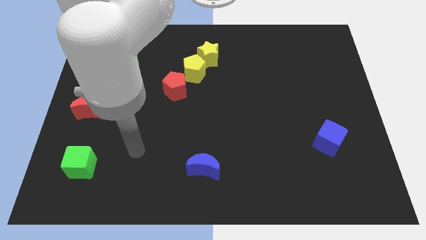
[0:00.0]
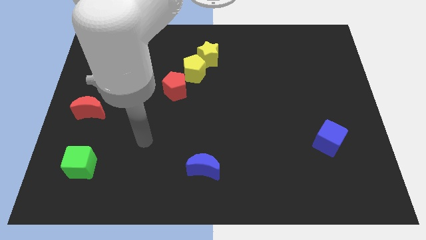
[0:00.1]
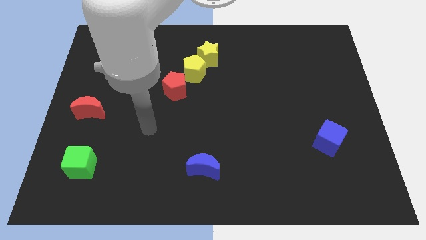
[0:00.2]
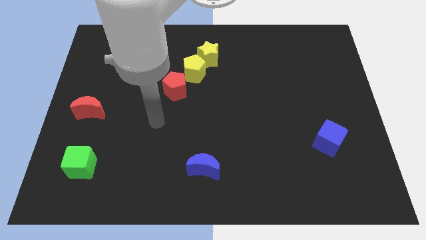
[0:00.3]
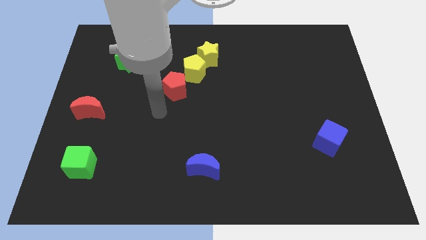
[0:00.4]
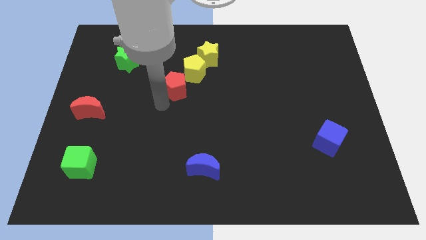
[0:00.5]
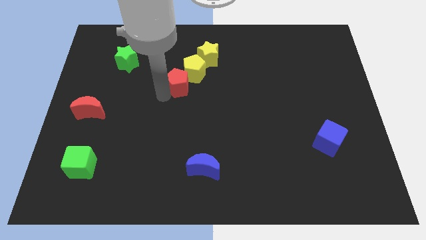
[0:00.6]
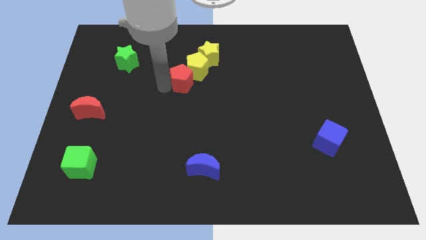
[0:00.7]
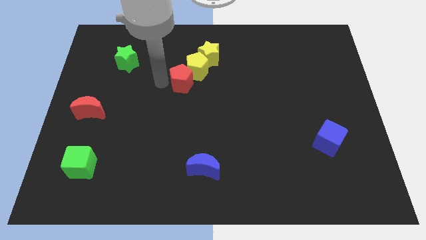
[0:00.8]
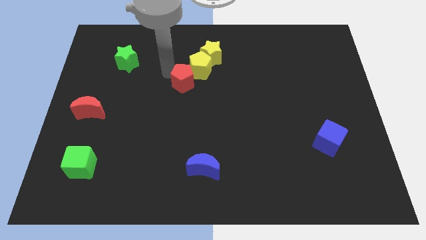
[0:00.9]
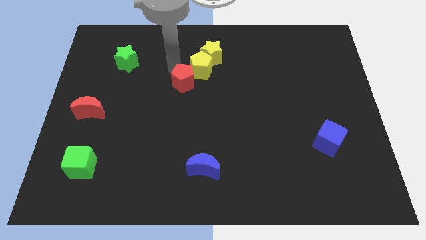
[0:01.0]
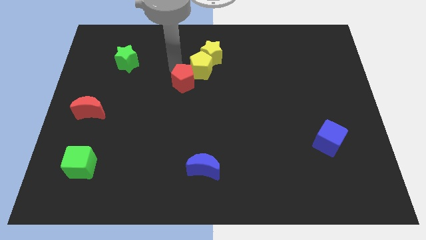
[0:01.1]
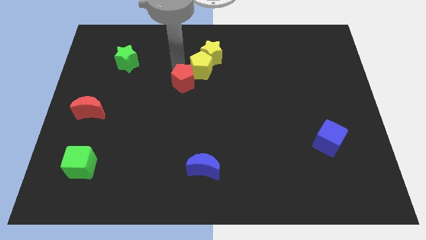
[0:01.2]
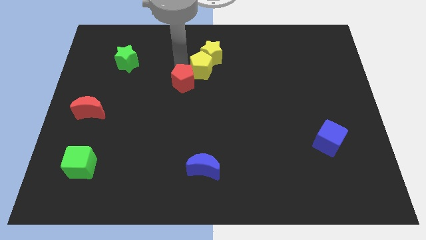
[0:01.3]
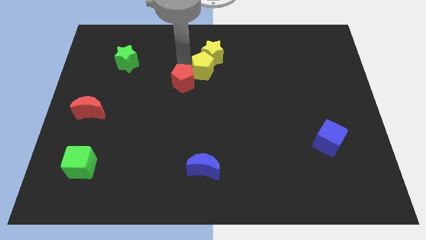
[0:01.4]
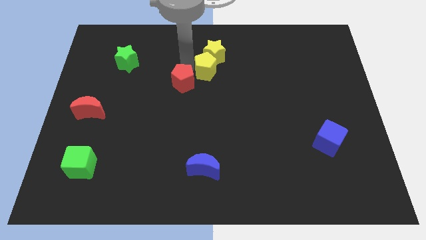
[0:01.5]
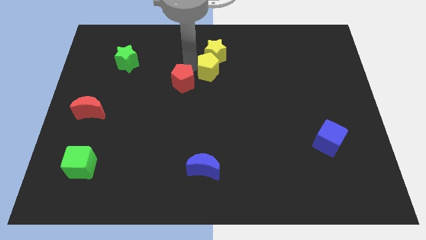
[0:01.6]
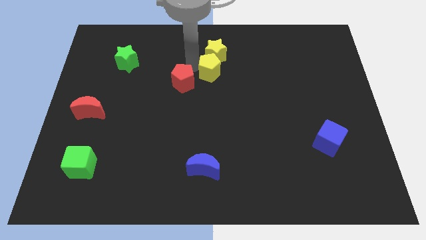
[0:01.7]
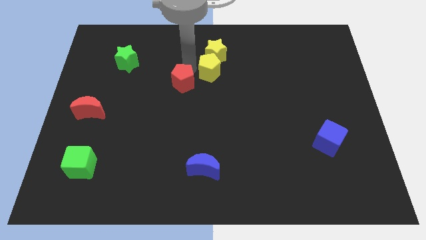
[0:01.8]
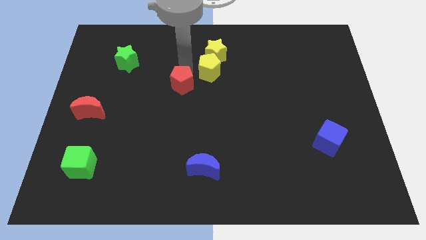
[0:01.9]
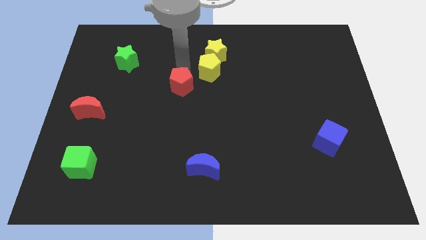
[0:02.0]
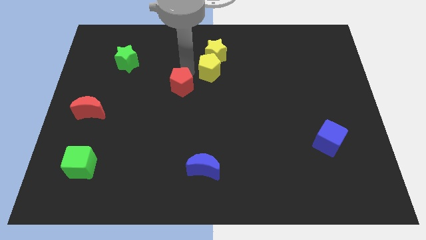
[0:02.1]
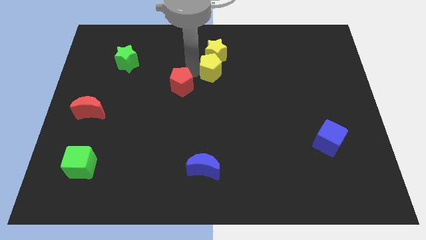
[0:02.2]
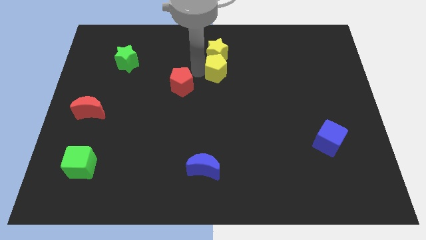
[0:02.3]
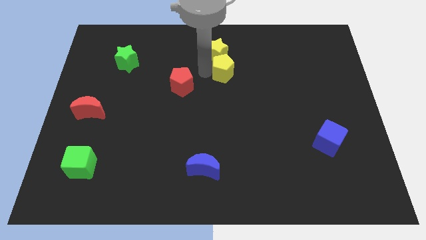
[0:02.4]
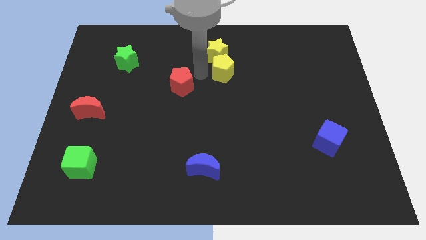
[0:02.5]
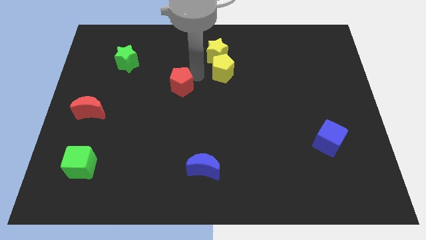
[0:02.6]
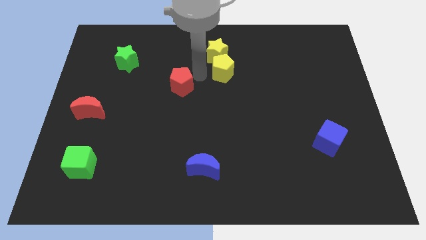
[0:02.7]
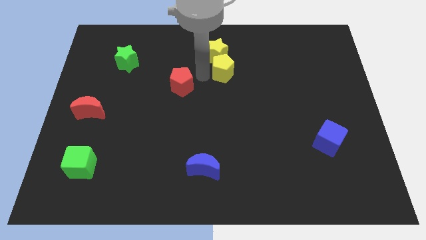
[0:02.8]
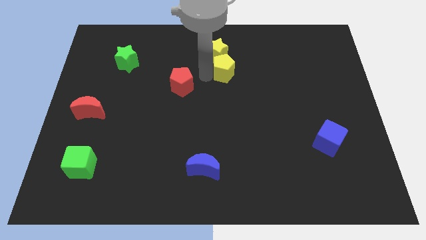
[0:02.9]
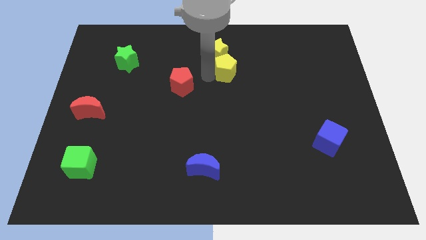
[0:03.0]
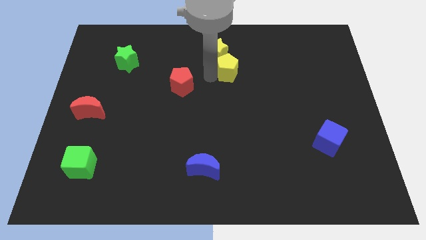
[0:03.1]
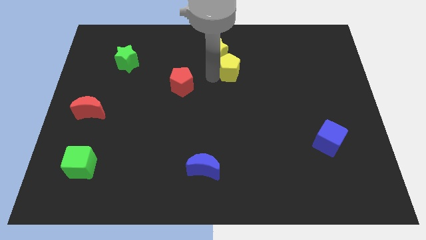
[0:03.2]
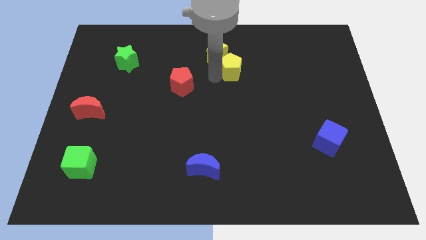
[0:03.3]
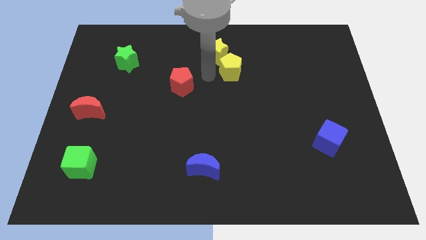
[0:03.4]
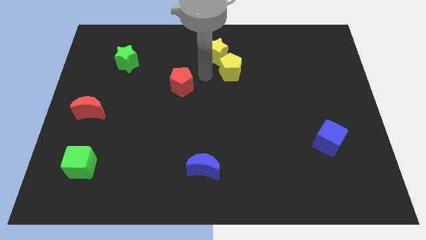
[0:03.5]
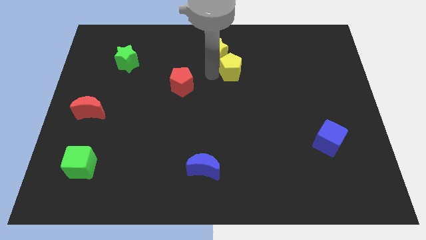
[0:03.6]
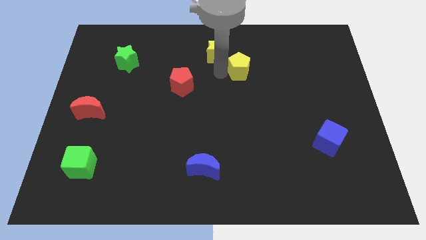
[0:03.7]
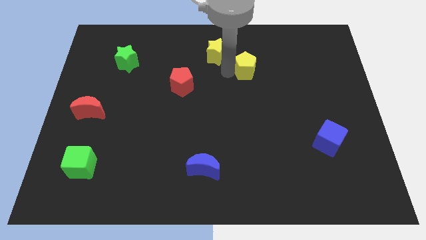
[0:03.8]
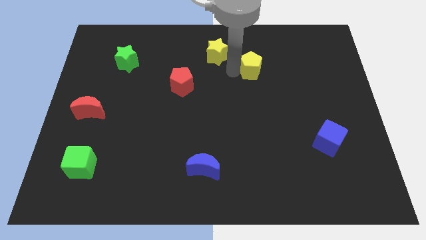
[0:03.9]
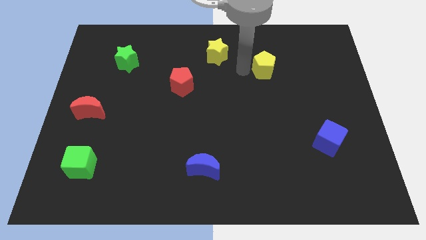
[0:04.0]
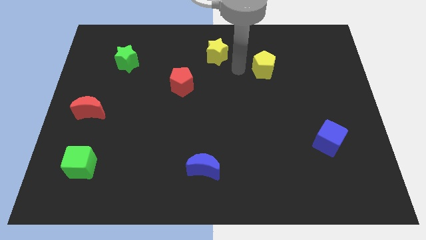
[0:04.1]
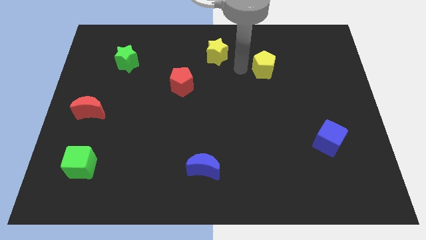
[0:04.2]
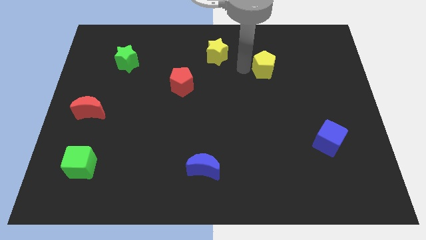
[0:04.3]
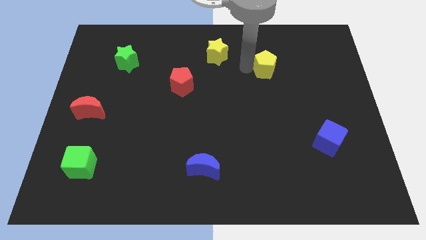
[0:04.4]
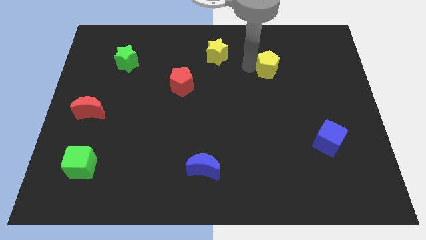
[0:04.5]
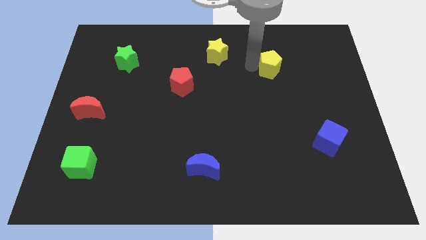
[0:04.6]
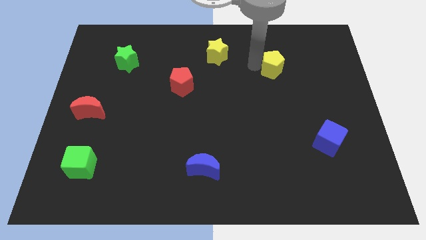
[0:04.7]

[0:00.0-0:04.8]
slide the yellow pentagon to the right

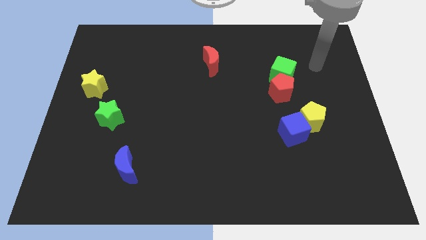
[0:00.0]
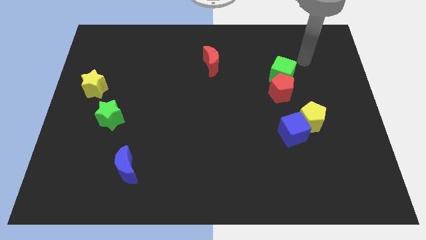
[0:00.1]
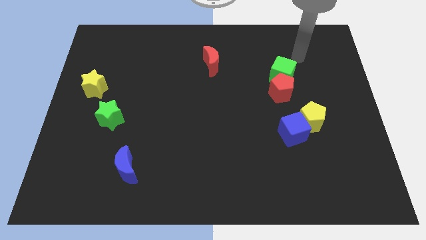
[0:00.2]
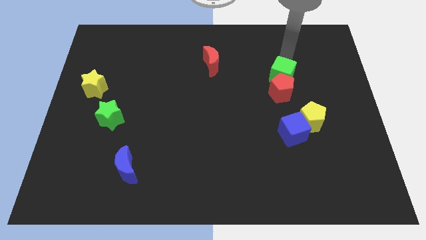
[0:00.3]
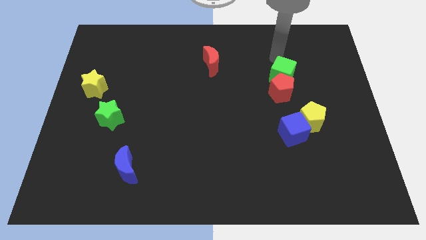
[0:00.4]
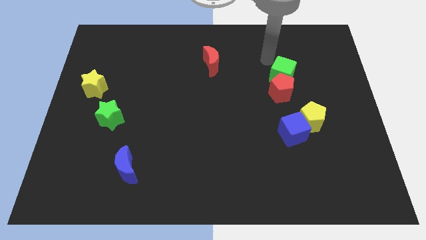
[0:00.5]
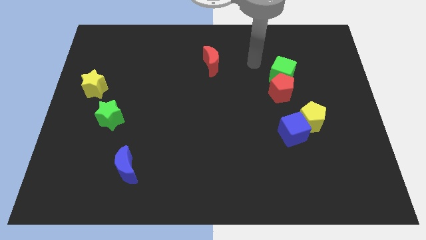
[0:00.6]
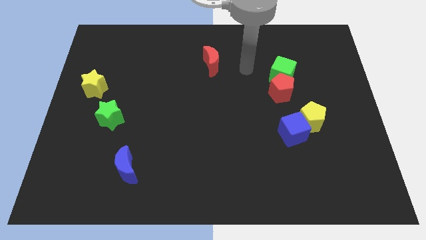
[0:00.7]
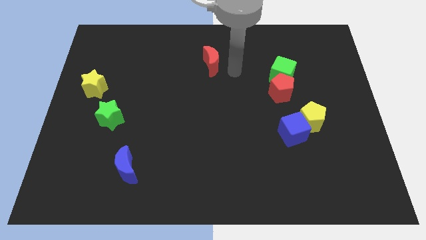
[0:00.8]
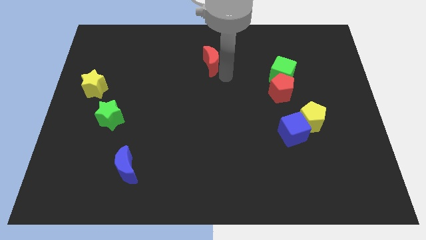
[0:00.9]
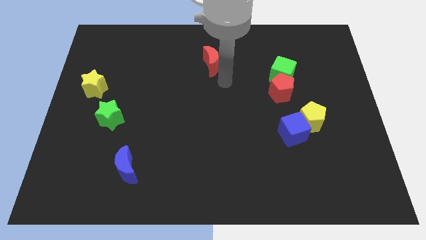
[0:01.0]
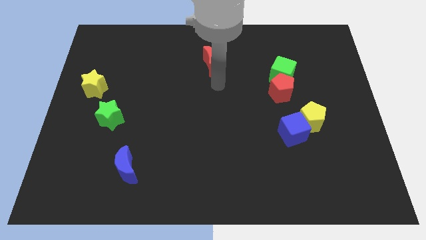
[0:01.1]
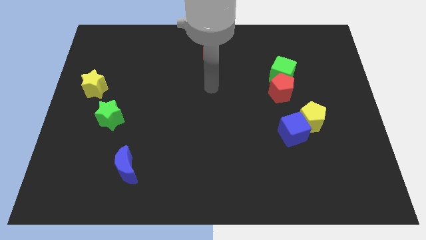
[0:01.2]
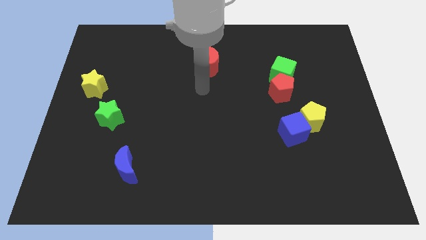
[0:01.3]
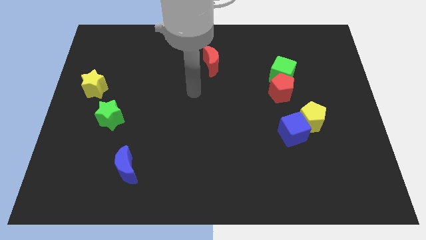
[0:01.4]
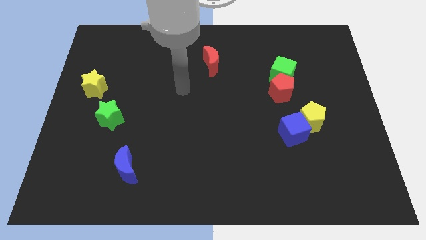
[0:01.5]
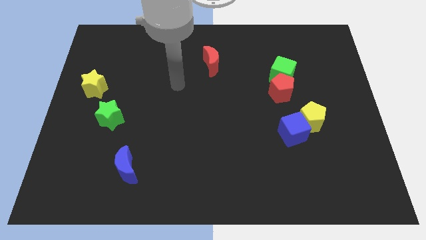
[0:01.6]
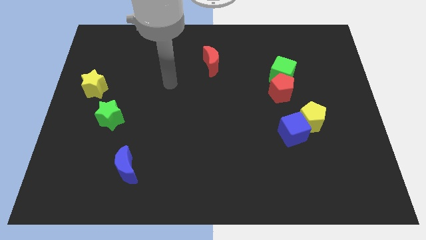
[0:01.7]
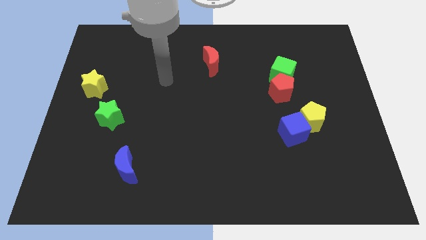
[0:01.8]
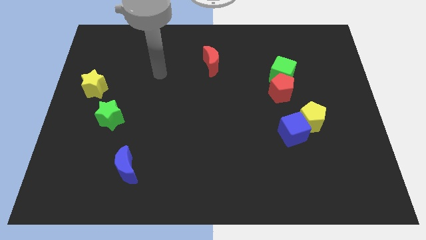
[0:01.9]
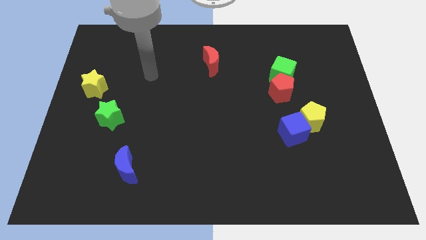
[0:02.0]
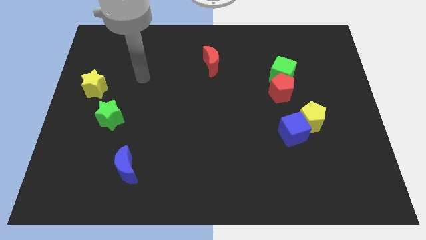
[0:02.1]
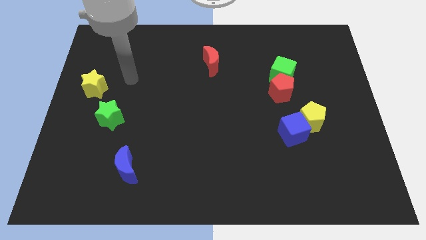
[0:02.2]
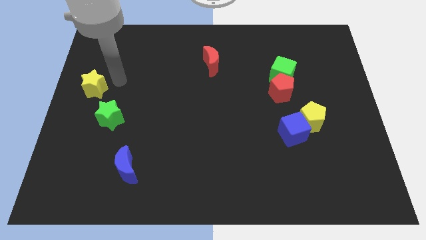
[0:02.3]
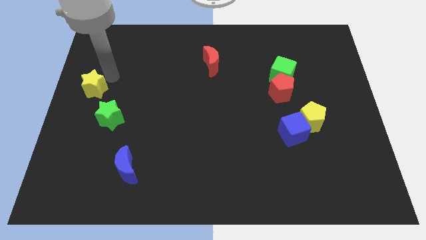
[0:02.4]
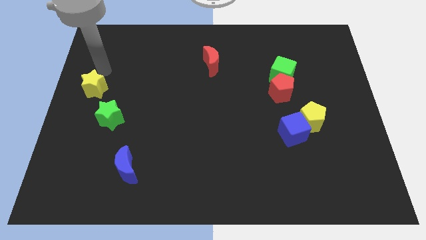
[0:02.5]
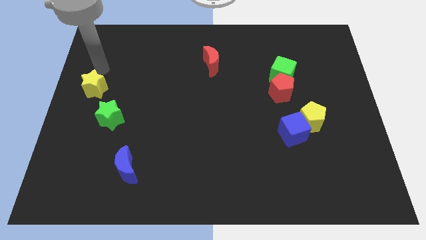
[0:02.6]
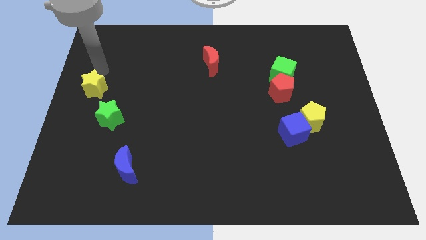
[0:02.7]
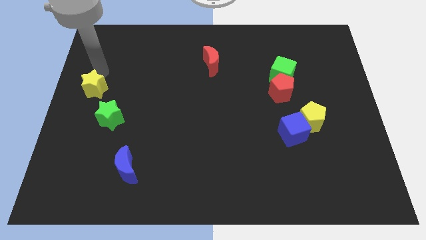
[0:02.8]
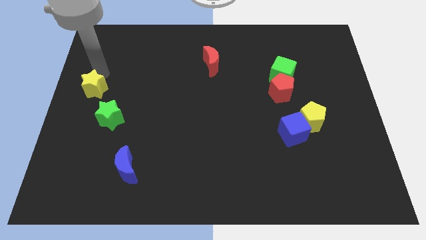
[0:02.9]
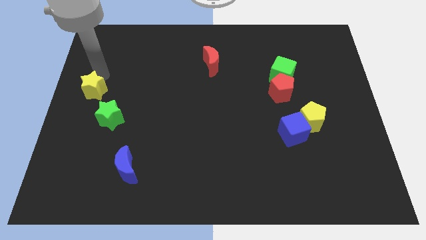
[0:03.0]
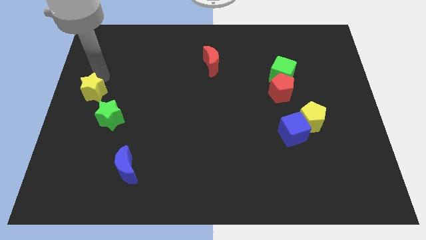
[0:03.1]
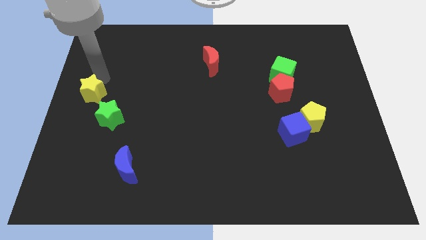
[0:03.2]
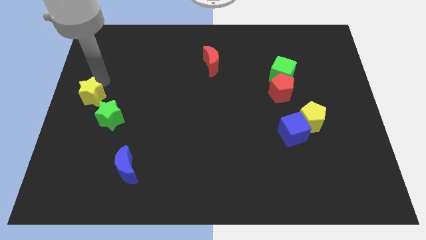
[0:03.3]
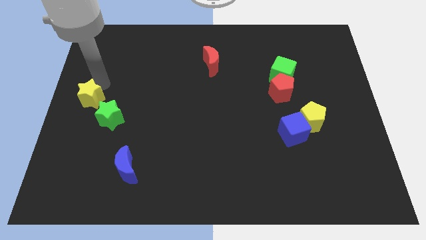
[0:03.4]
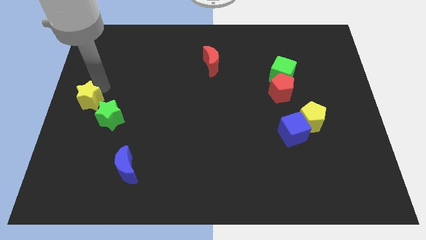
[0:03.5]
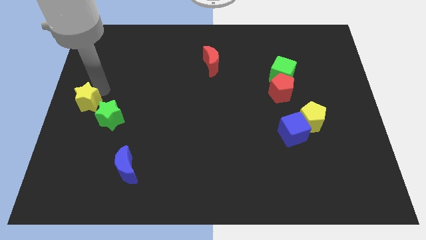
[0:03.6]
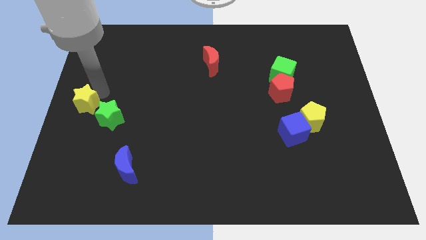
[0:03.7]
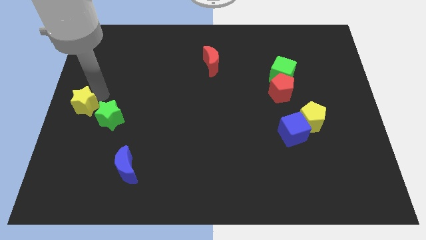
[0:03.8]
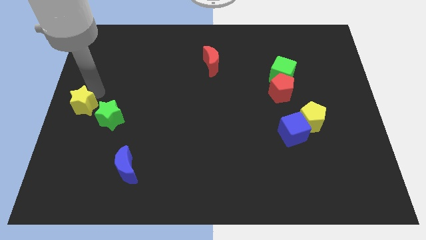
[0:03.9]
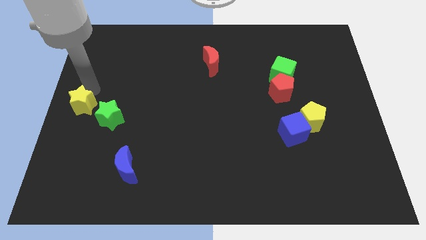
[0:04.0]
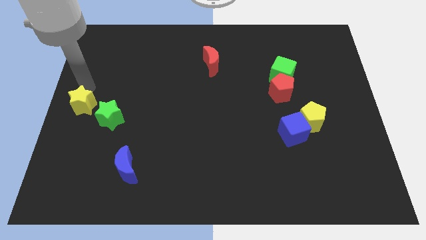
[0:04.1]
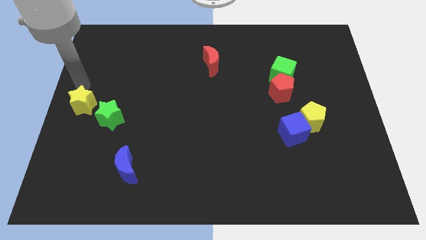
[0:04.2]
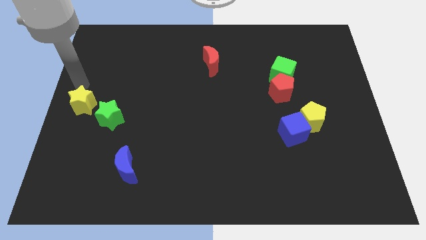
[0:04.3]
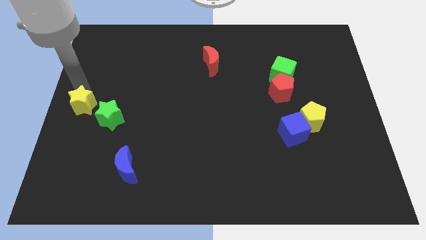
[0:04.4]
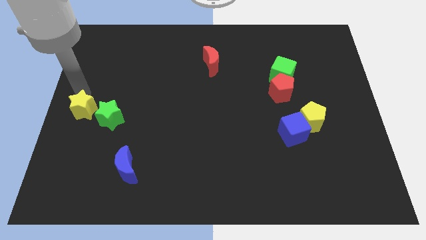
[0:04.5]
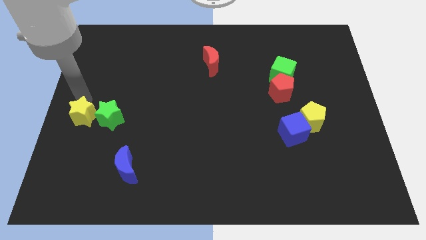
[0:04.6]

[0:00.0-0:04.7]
move the yellow star a bit down
